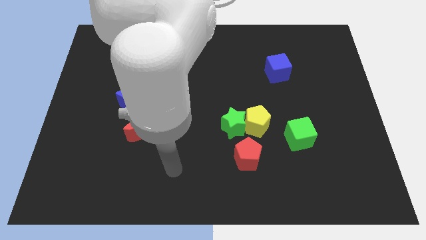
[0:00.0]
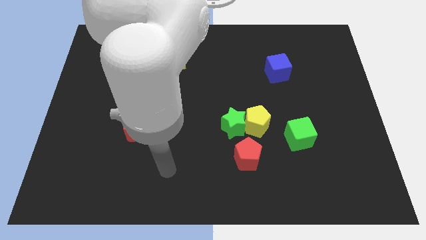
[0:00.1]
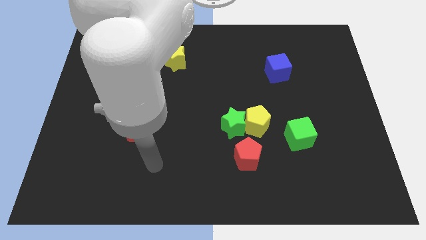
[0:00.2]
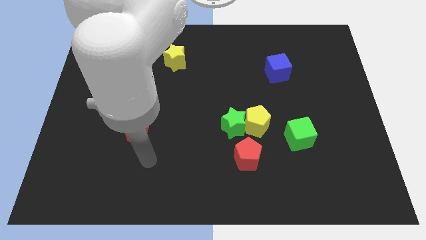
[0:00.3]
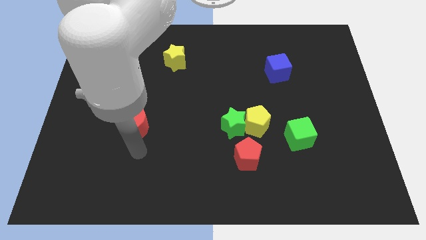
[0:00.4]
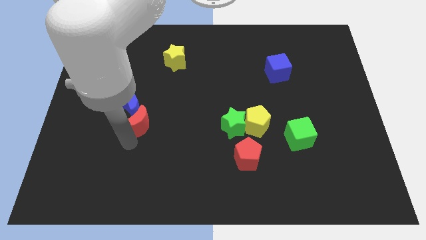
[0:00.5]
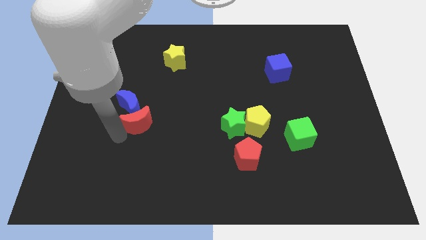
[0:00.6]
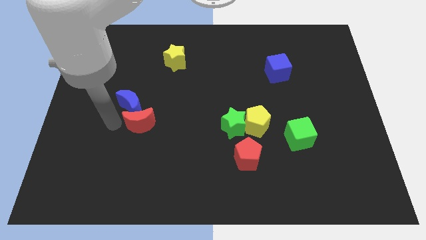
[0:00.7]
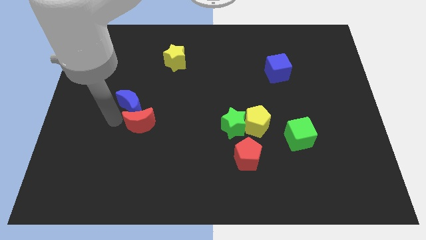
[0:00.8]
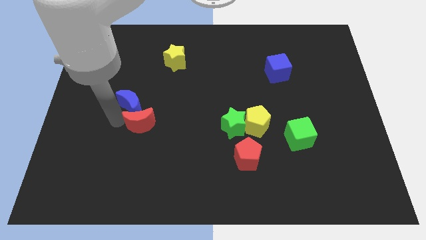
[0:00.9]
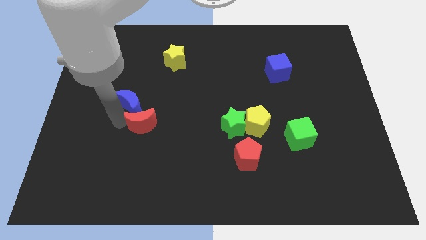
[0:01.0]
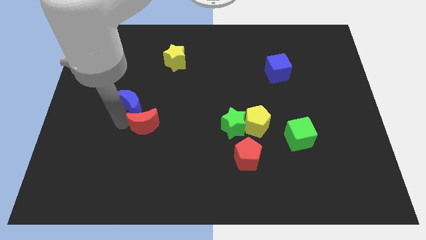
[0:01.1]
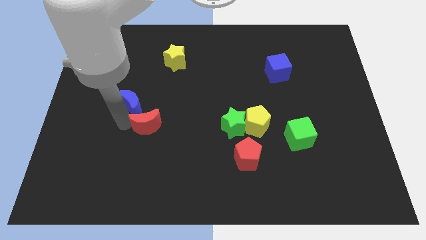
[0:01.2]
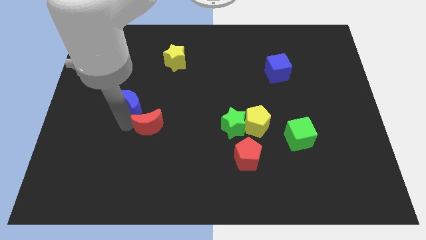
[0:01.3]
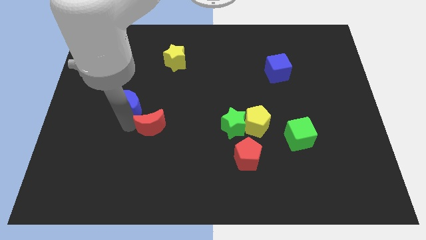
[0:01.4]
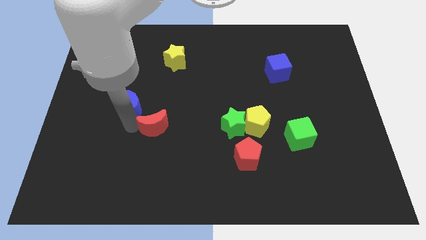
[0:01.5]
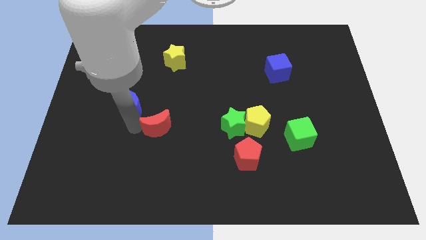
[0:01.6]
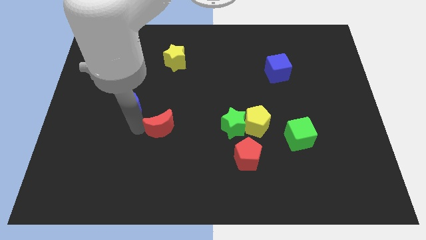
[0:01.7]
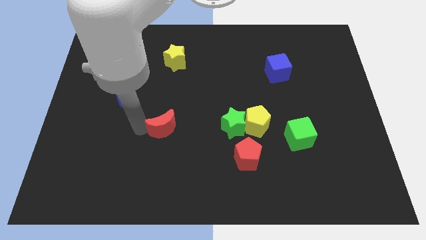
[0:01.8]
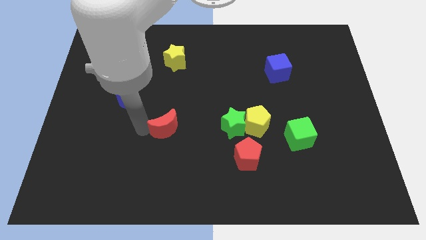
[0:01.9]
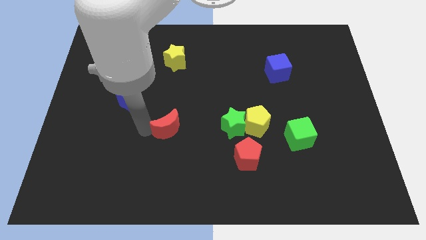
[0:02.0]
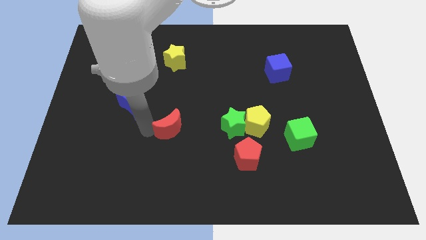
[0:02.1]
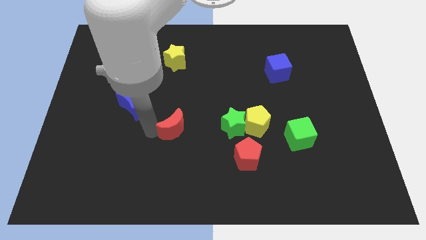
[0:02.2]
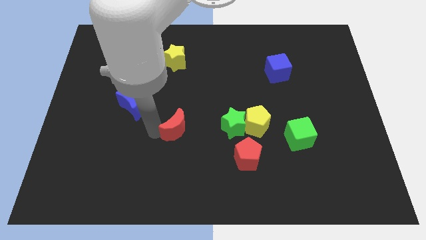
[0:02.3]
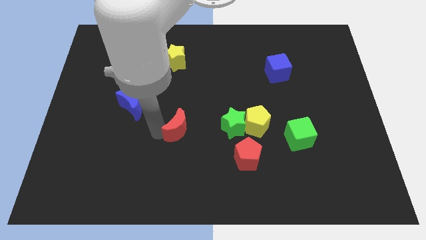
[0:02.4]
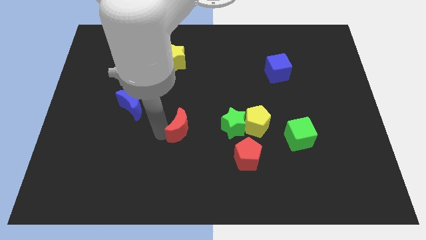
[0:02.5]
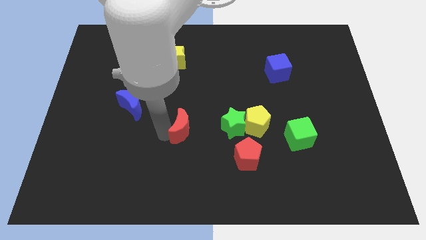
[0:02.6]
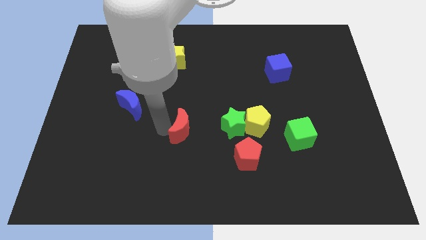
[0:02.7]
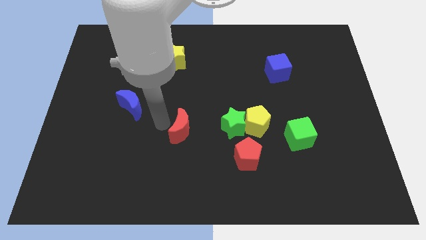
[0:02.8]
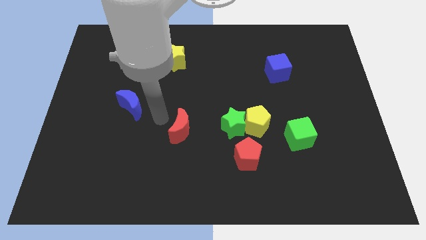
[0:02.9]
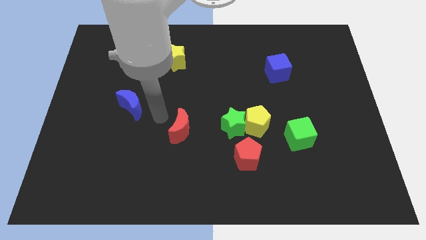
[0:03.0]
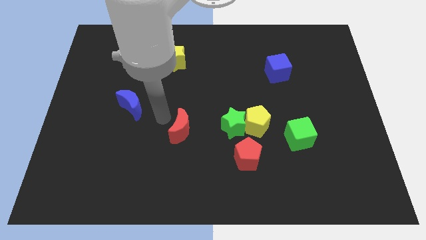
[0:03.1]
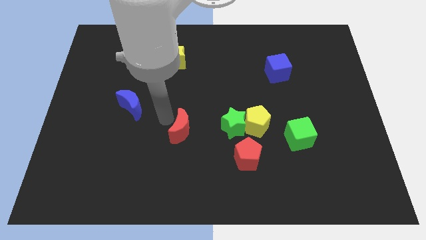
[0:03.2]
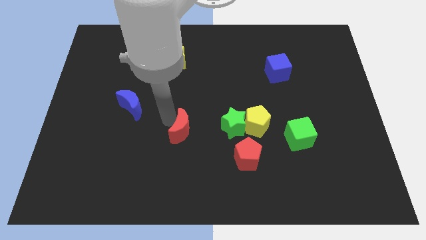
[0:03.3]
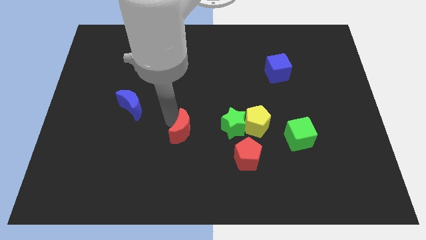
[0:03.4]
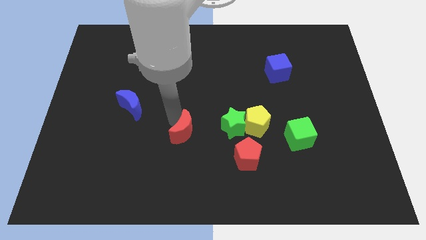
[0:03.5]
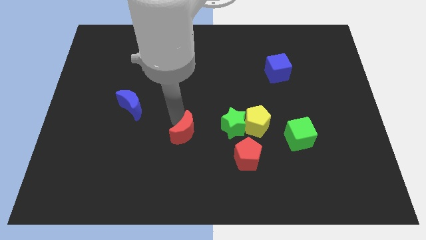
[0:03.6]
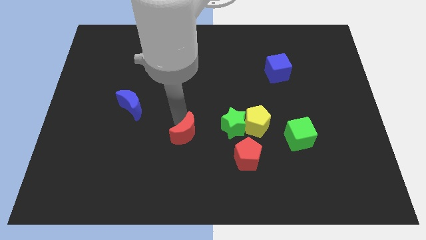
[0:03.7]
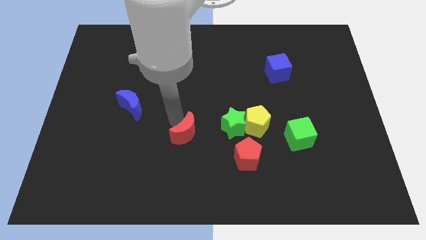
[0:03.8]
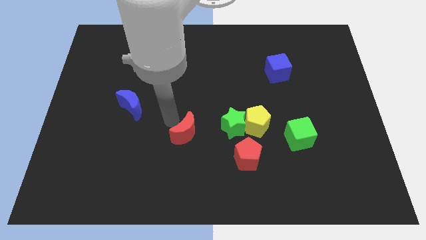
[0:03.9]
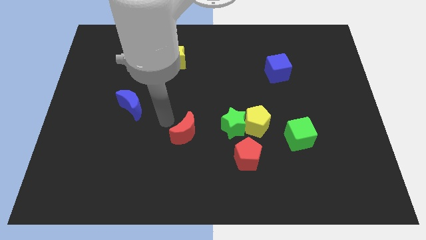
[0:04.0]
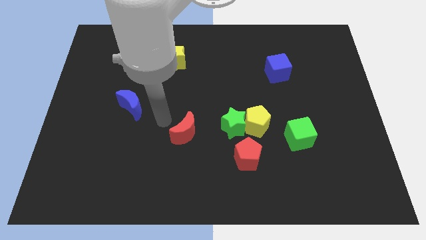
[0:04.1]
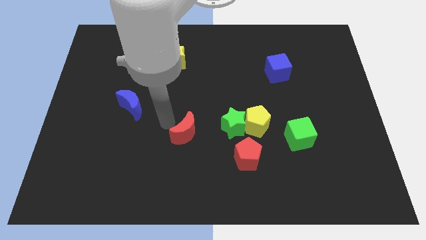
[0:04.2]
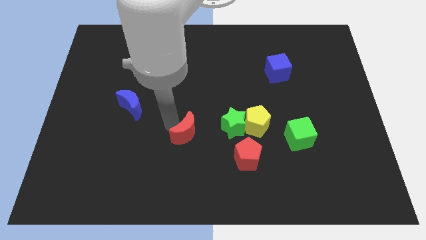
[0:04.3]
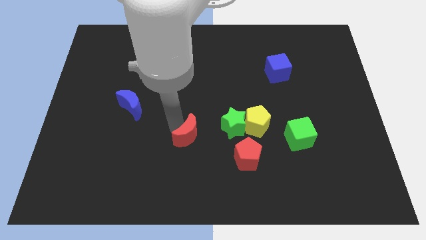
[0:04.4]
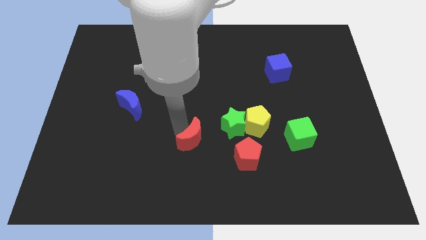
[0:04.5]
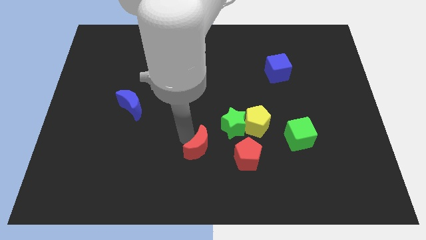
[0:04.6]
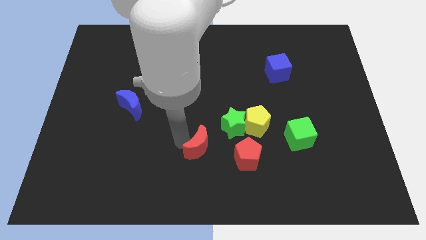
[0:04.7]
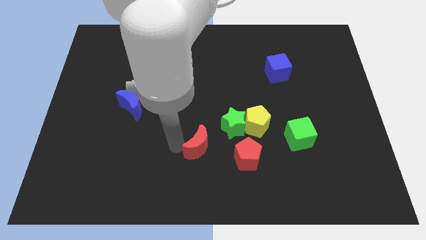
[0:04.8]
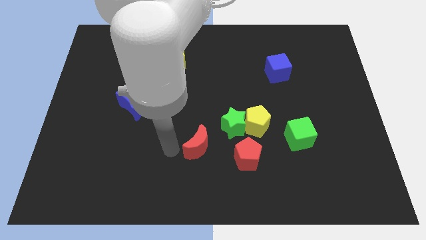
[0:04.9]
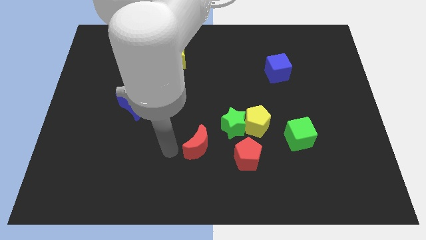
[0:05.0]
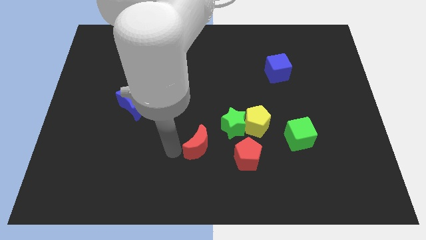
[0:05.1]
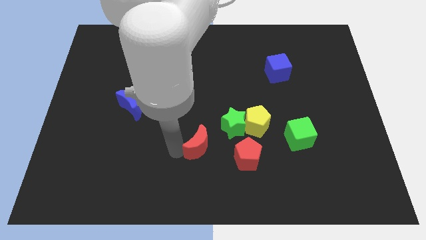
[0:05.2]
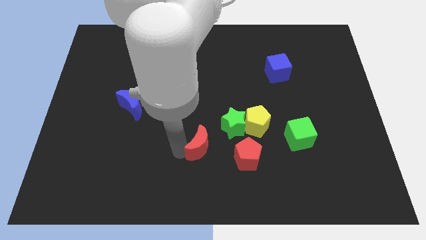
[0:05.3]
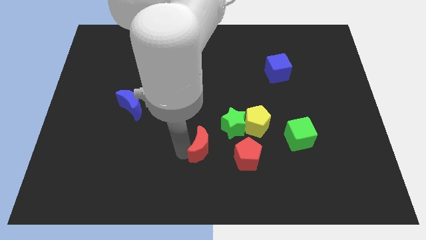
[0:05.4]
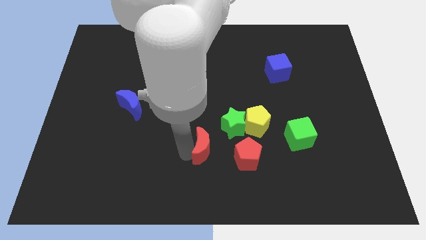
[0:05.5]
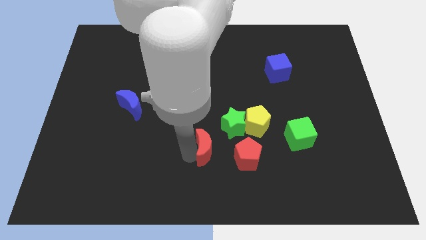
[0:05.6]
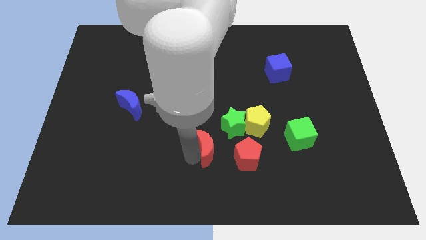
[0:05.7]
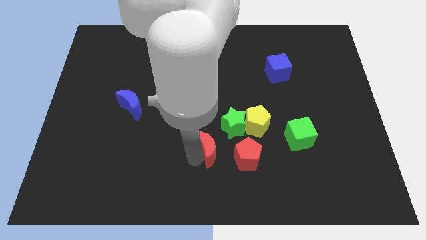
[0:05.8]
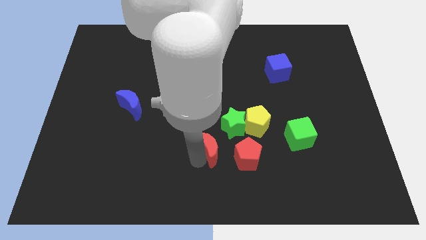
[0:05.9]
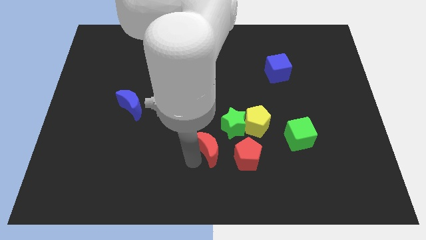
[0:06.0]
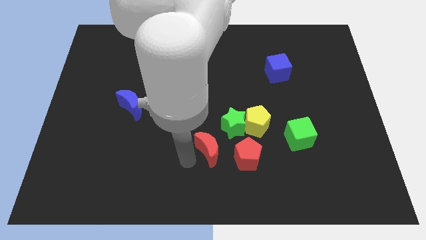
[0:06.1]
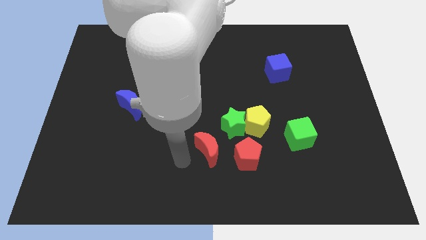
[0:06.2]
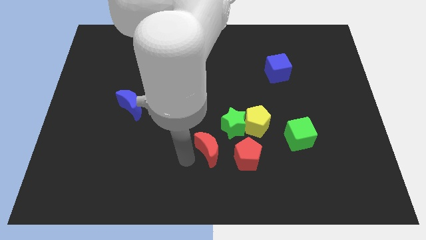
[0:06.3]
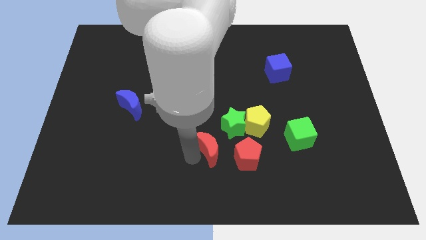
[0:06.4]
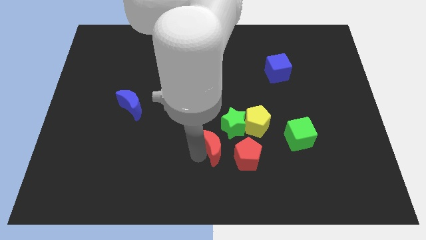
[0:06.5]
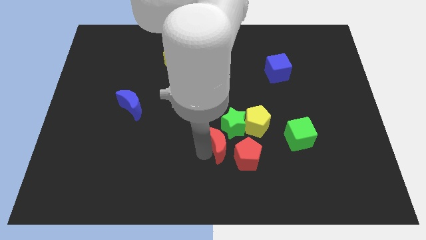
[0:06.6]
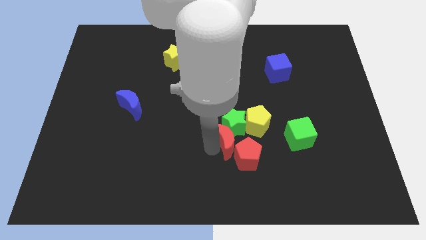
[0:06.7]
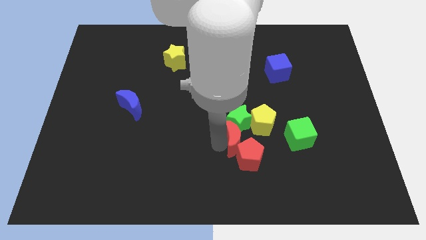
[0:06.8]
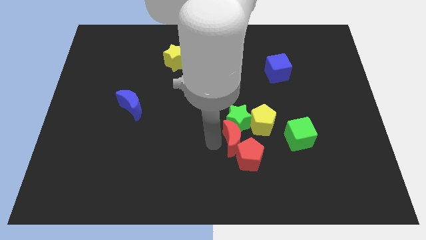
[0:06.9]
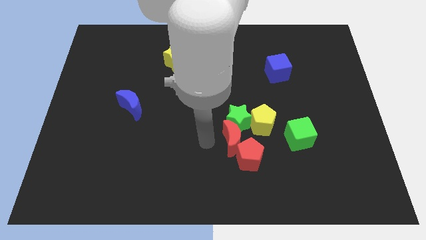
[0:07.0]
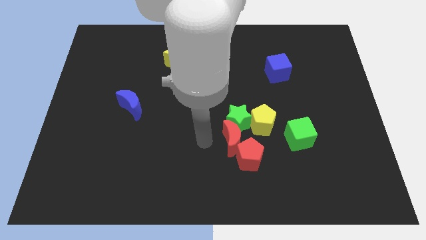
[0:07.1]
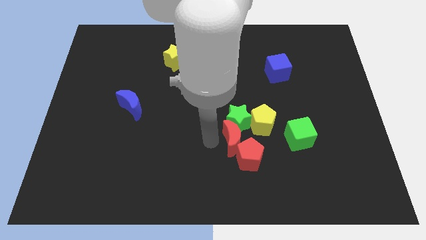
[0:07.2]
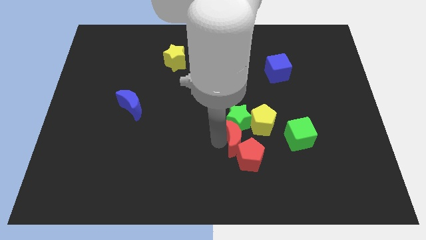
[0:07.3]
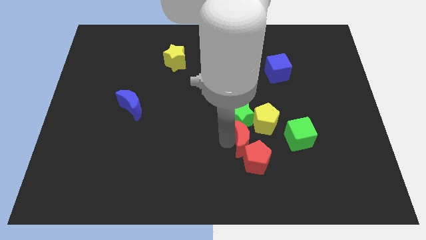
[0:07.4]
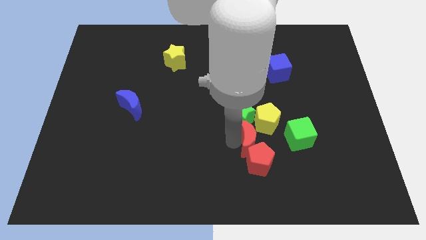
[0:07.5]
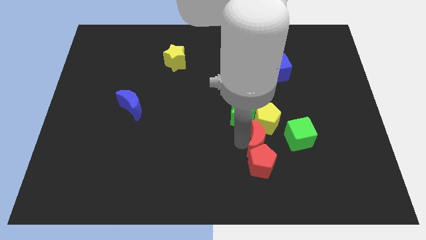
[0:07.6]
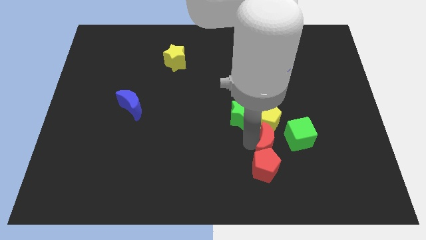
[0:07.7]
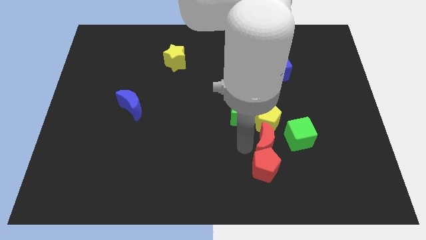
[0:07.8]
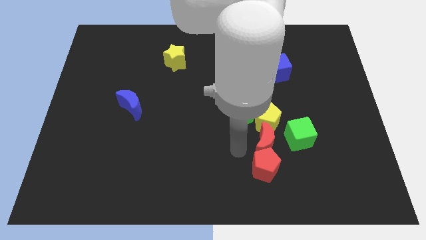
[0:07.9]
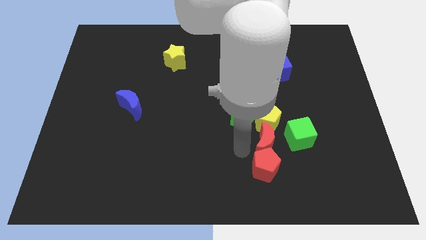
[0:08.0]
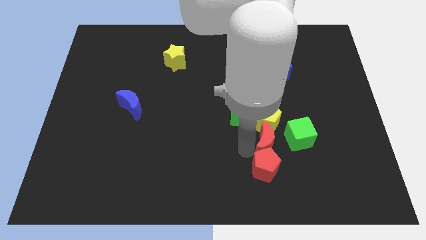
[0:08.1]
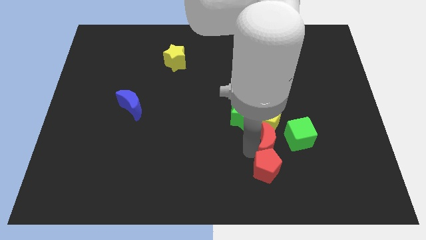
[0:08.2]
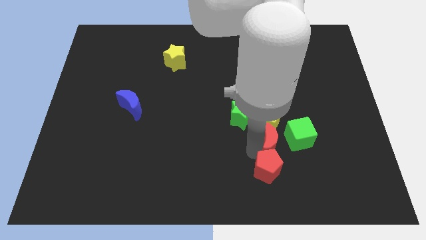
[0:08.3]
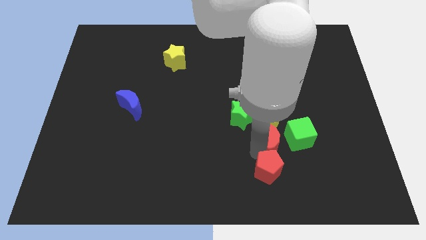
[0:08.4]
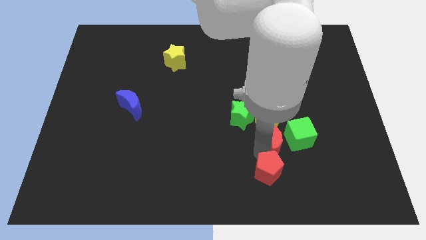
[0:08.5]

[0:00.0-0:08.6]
move the red moon close to the green cube
